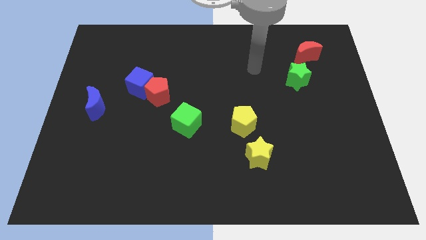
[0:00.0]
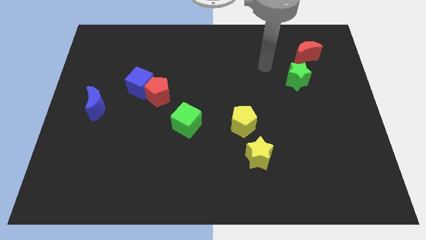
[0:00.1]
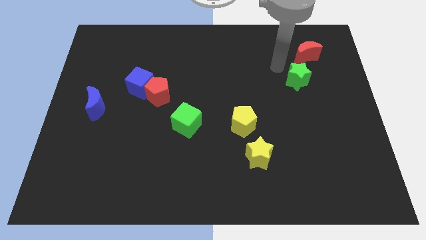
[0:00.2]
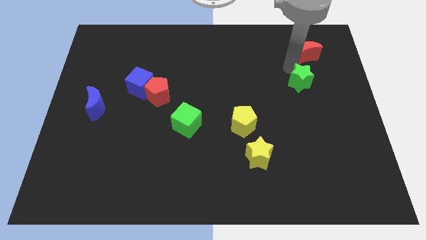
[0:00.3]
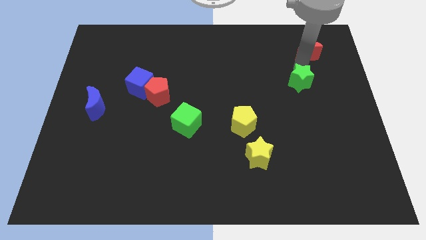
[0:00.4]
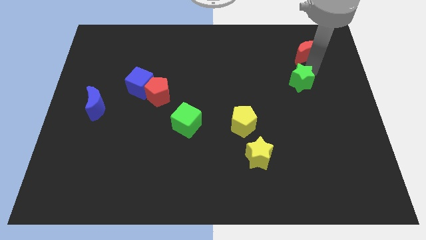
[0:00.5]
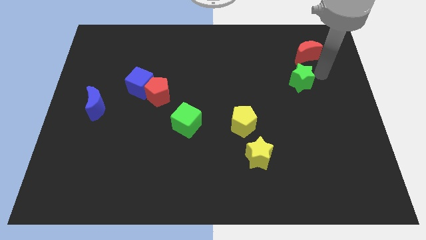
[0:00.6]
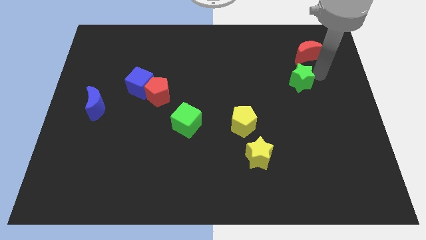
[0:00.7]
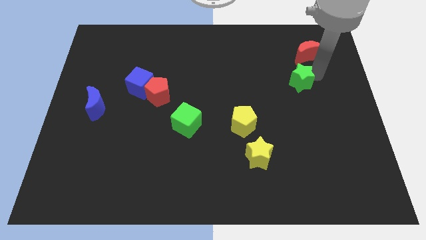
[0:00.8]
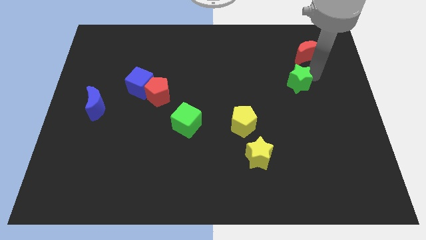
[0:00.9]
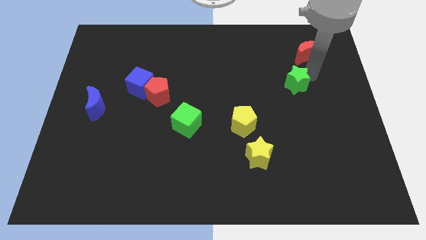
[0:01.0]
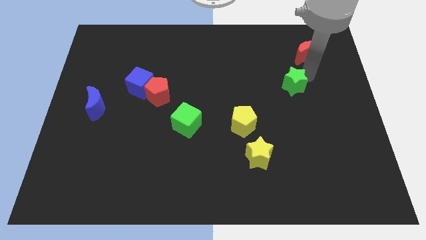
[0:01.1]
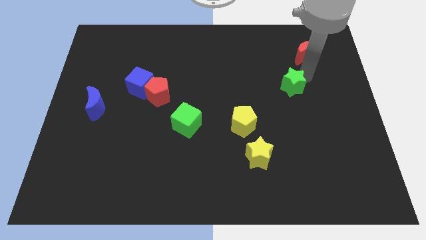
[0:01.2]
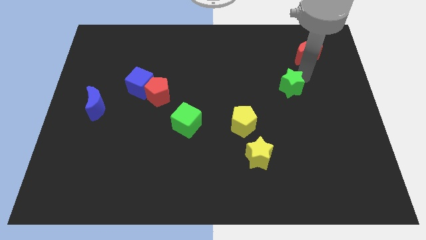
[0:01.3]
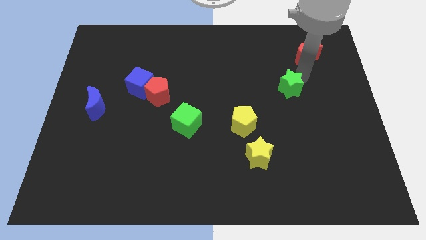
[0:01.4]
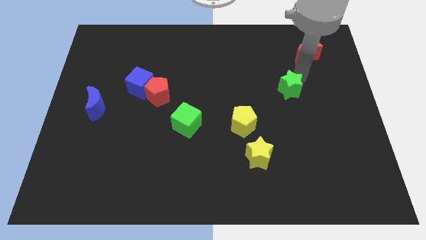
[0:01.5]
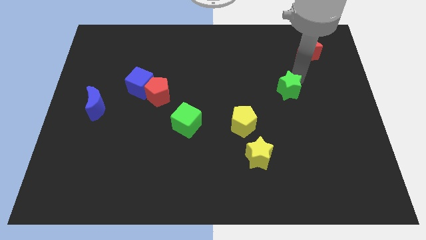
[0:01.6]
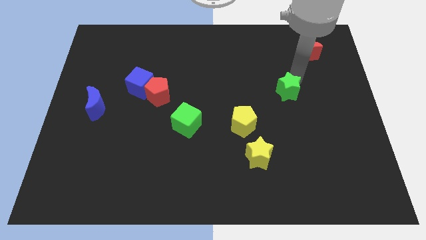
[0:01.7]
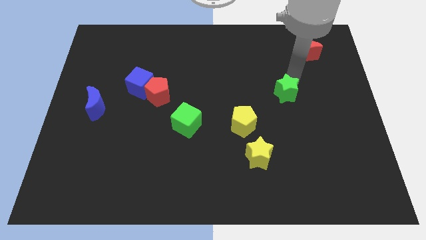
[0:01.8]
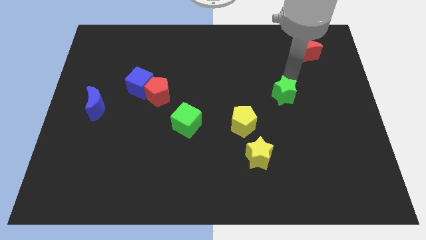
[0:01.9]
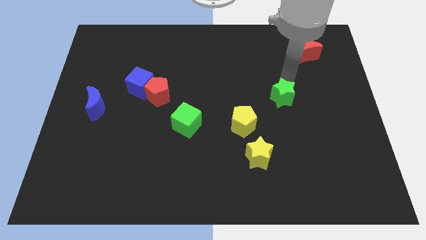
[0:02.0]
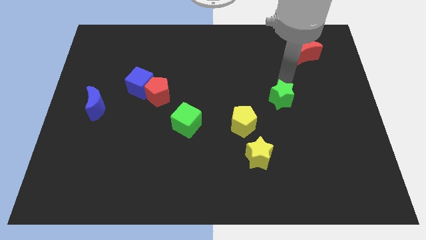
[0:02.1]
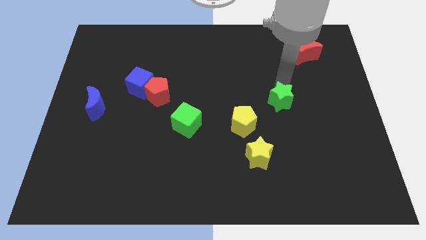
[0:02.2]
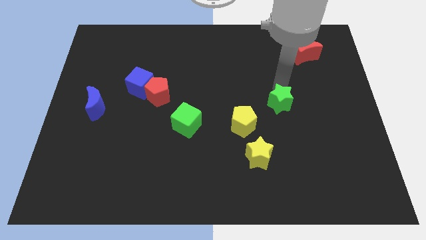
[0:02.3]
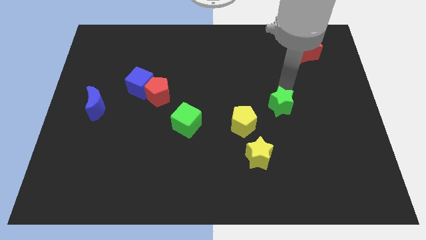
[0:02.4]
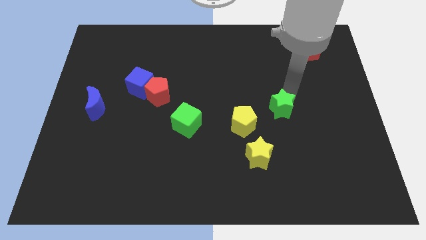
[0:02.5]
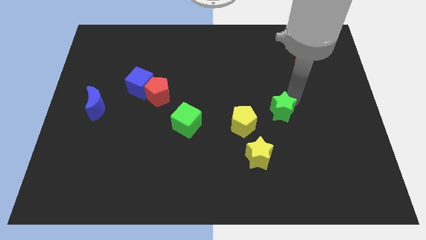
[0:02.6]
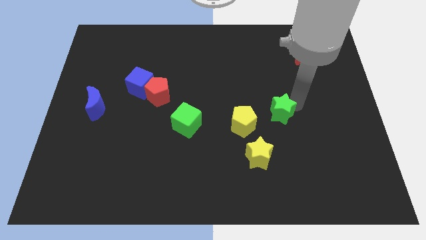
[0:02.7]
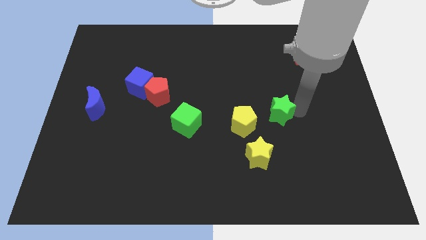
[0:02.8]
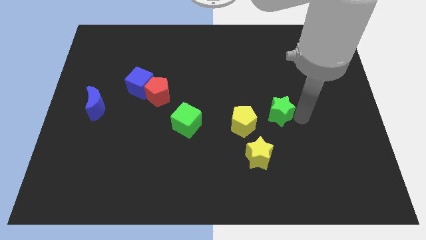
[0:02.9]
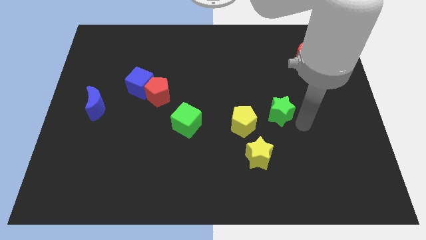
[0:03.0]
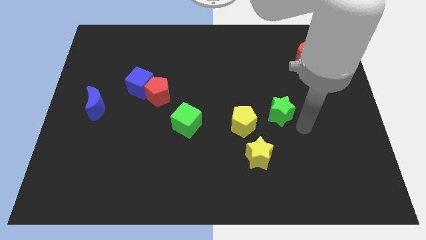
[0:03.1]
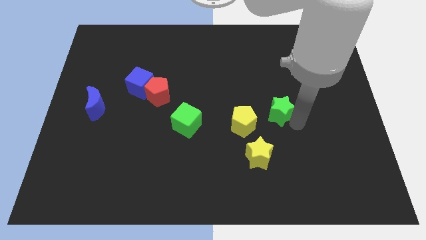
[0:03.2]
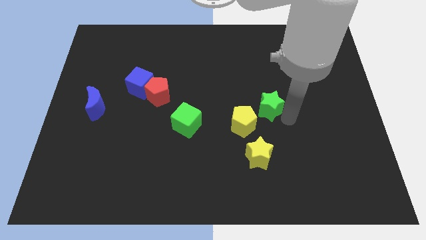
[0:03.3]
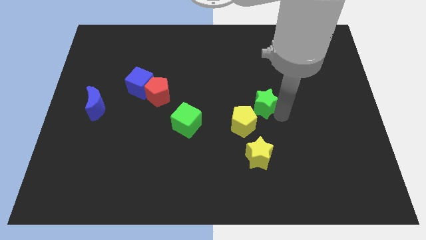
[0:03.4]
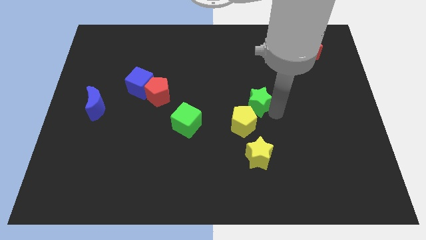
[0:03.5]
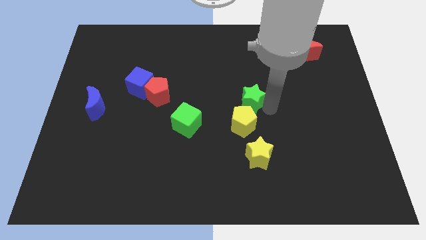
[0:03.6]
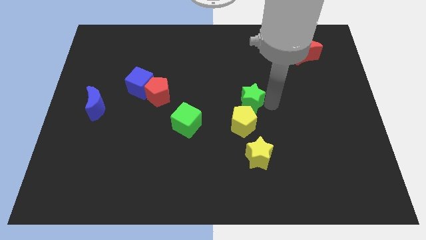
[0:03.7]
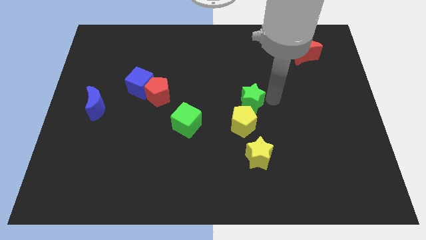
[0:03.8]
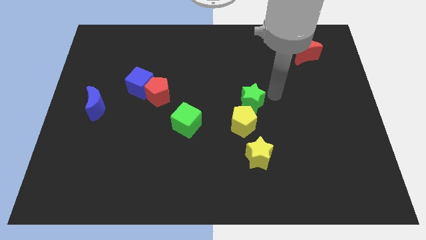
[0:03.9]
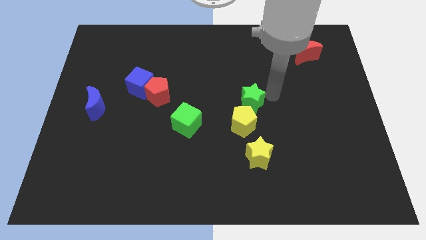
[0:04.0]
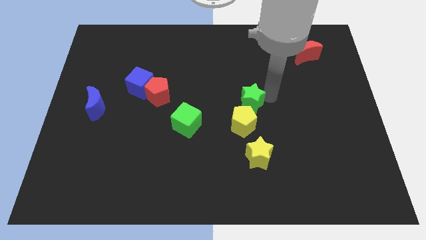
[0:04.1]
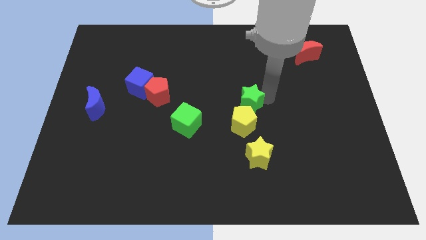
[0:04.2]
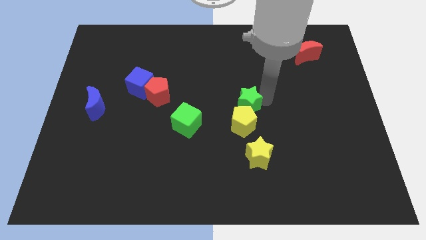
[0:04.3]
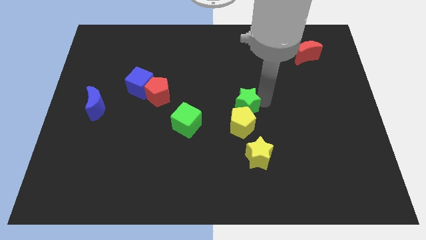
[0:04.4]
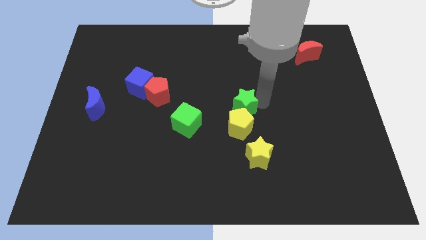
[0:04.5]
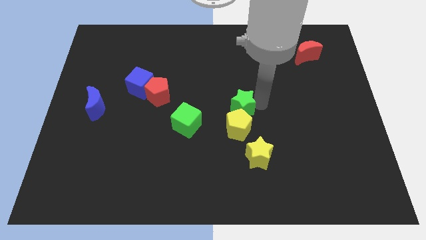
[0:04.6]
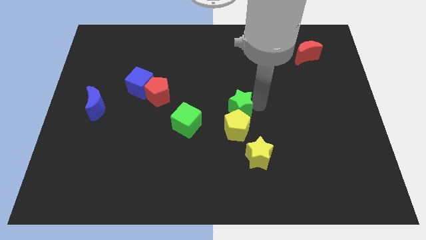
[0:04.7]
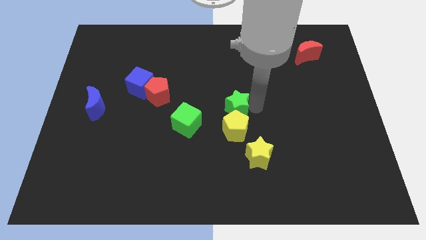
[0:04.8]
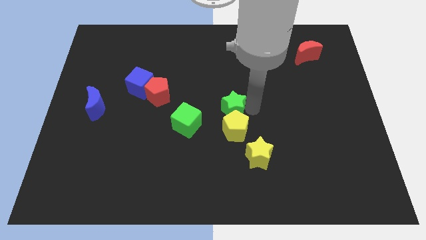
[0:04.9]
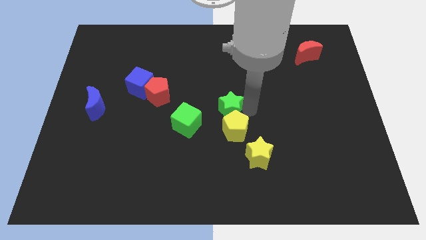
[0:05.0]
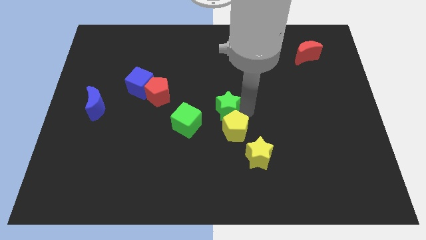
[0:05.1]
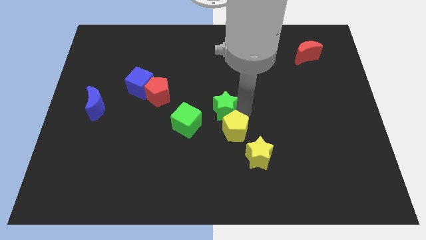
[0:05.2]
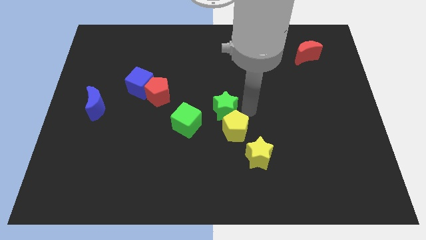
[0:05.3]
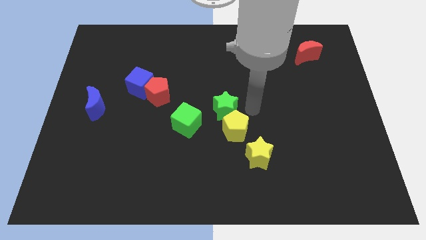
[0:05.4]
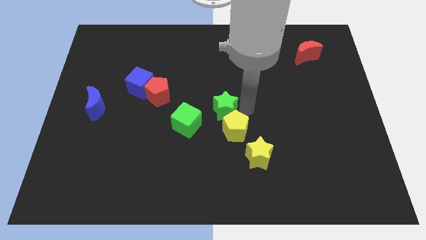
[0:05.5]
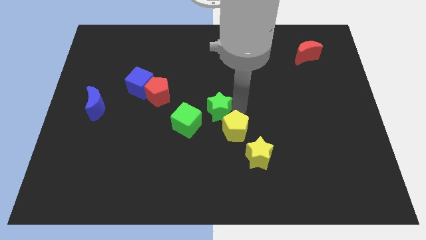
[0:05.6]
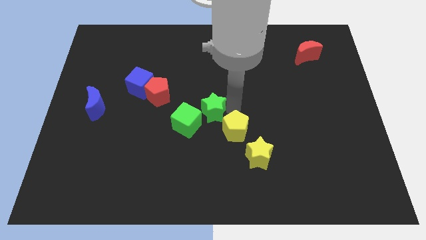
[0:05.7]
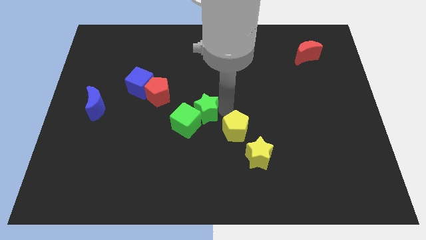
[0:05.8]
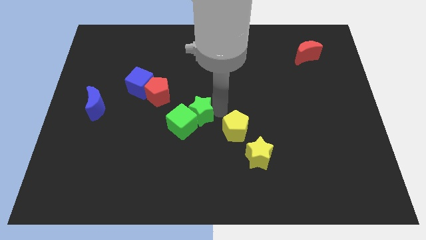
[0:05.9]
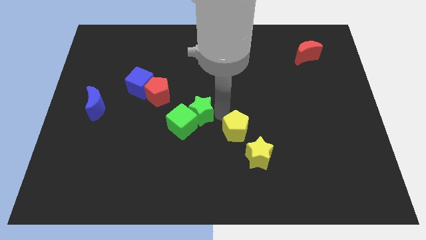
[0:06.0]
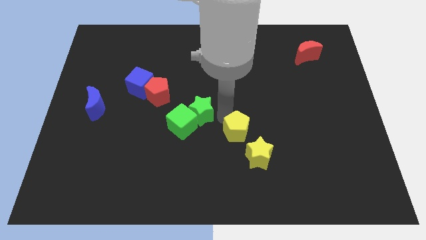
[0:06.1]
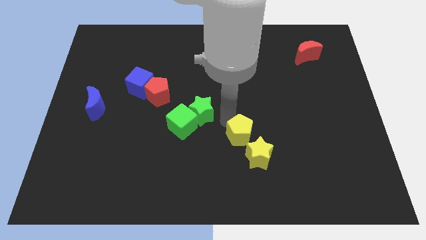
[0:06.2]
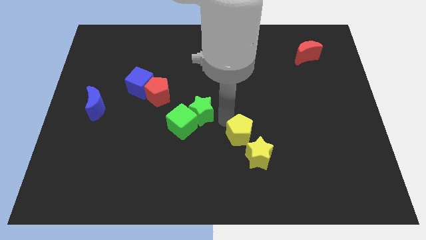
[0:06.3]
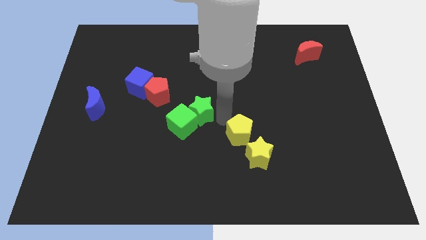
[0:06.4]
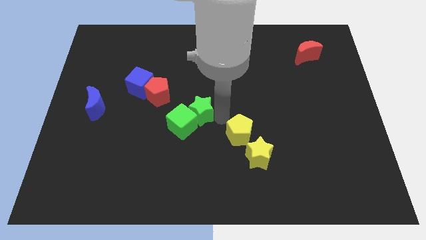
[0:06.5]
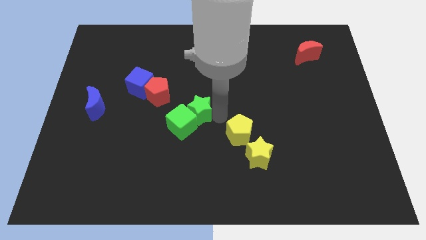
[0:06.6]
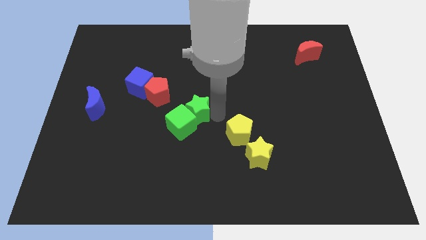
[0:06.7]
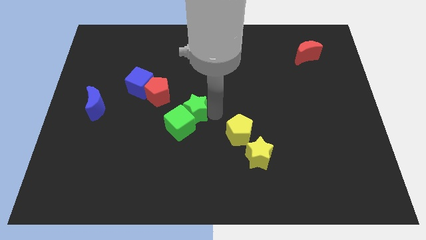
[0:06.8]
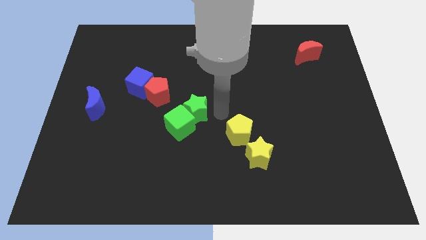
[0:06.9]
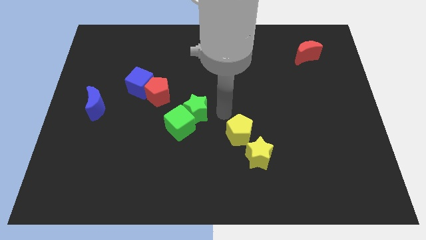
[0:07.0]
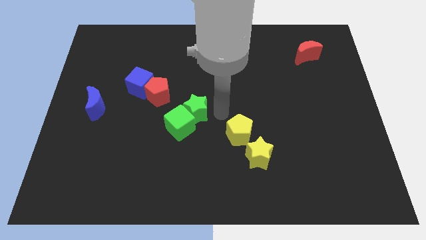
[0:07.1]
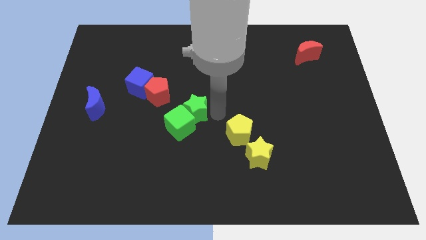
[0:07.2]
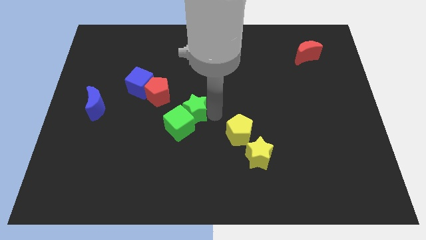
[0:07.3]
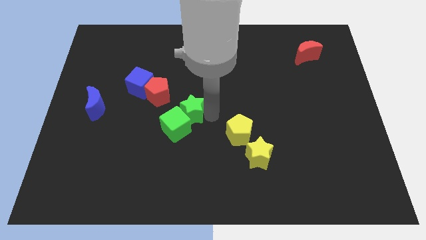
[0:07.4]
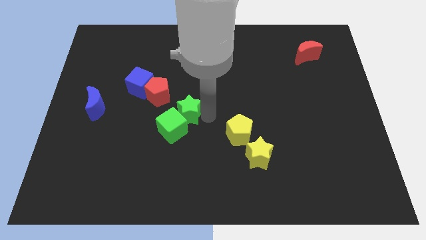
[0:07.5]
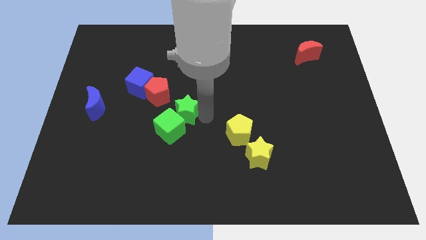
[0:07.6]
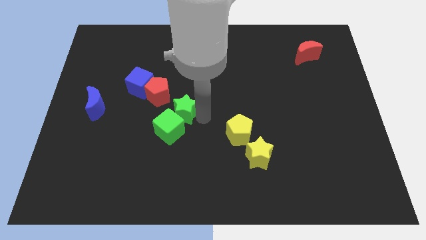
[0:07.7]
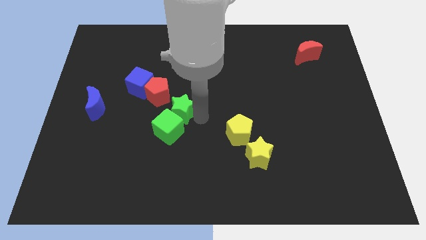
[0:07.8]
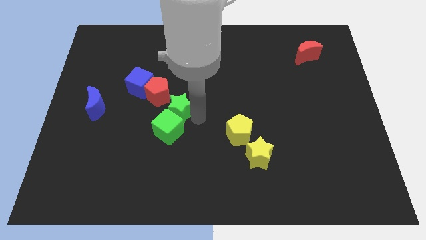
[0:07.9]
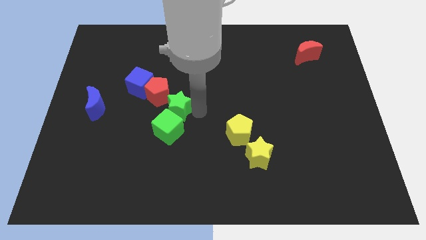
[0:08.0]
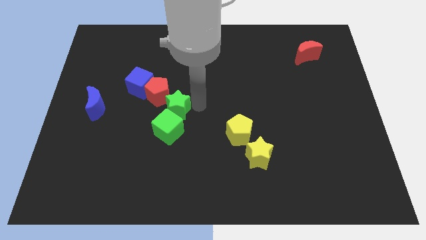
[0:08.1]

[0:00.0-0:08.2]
move the green star to the bottom side of the red pentagon

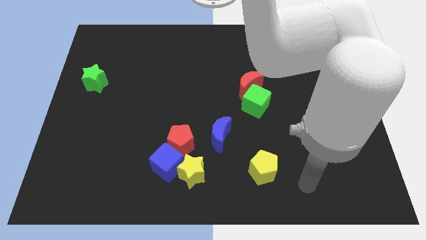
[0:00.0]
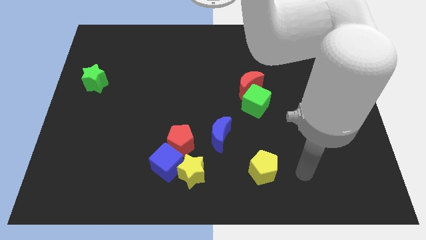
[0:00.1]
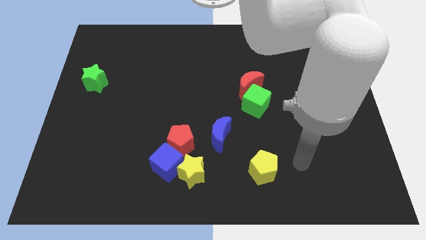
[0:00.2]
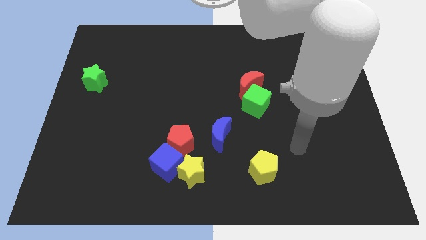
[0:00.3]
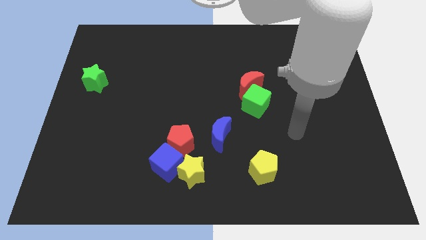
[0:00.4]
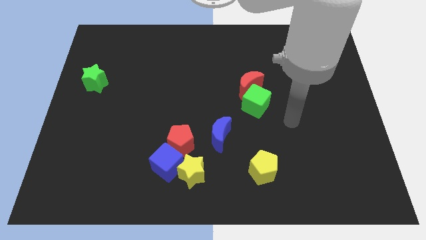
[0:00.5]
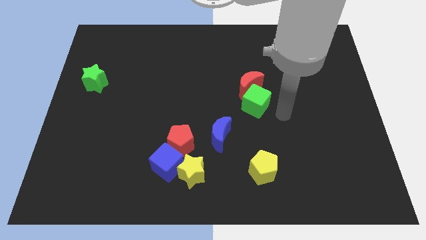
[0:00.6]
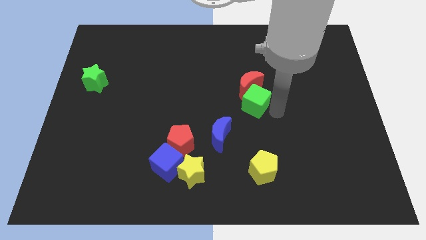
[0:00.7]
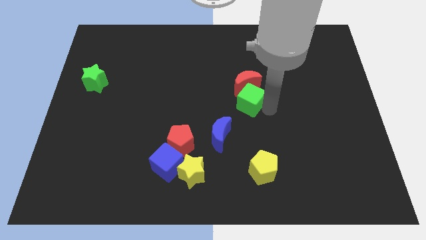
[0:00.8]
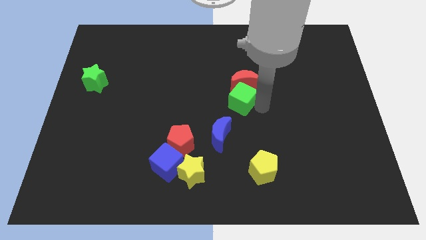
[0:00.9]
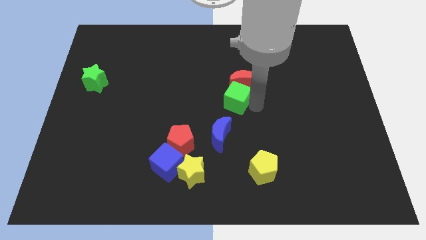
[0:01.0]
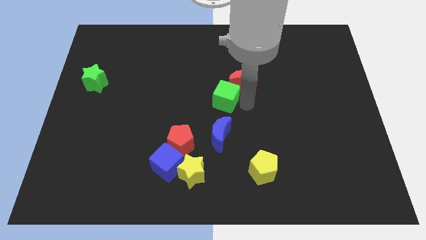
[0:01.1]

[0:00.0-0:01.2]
put the green cube to the left side of the red moon
